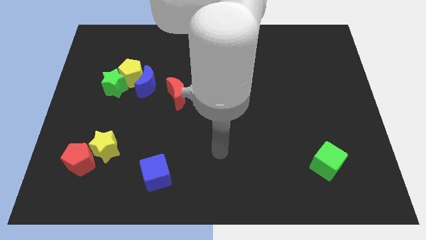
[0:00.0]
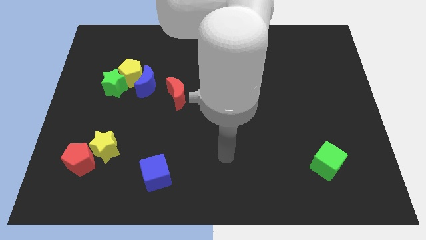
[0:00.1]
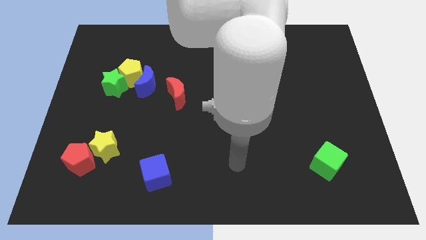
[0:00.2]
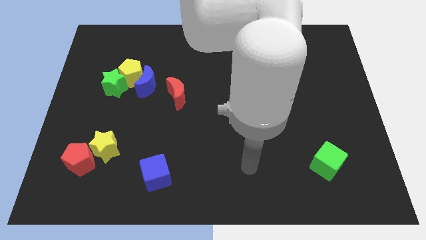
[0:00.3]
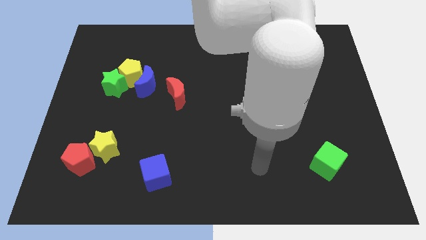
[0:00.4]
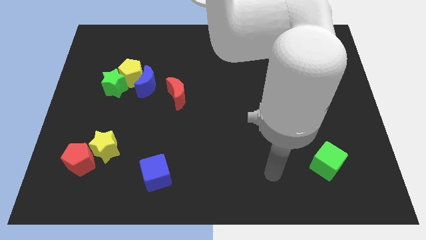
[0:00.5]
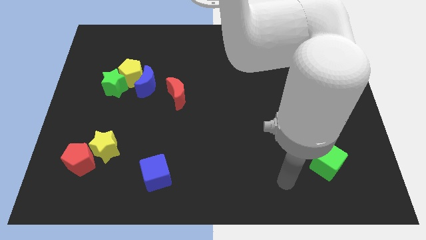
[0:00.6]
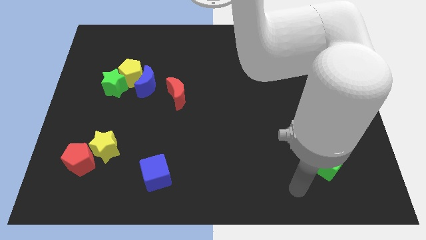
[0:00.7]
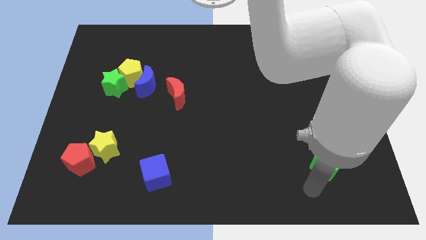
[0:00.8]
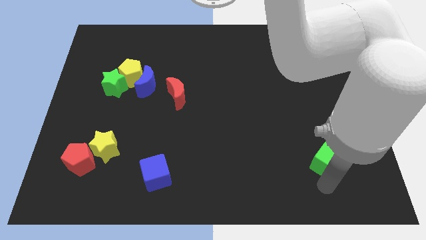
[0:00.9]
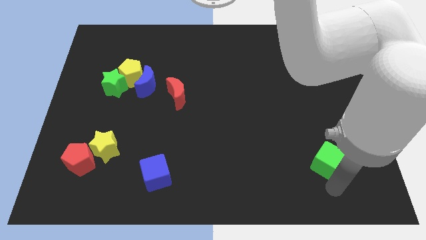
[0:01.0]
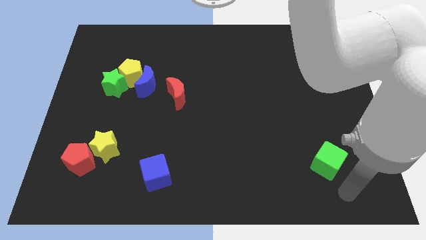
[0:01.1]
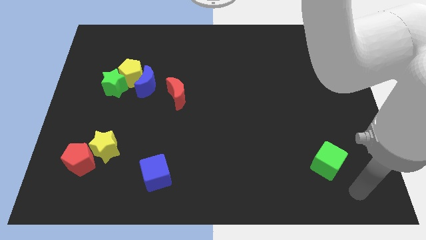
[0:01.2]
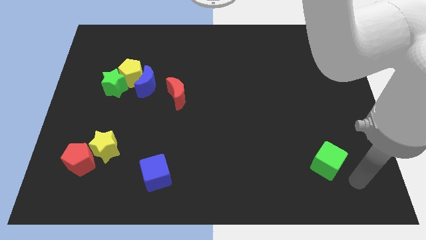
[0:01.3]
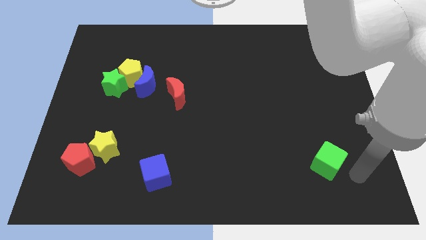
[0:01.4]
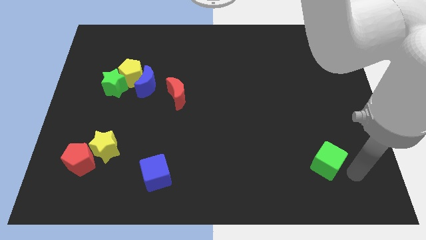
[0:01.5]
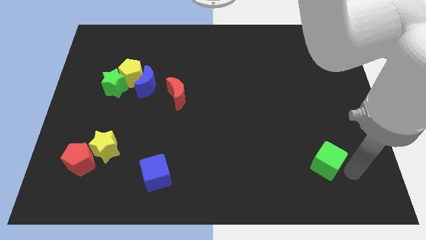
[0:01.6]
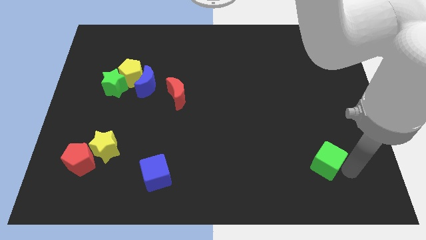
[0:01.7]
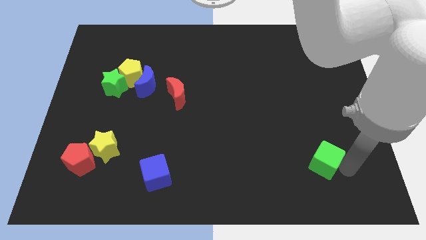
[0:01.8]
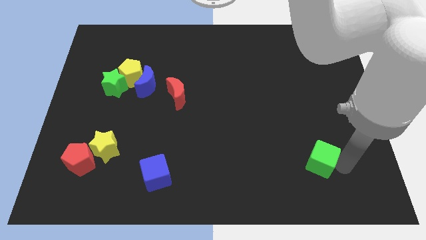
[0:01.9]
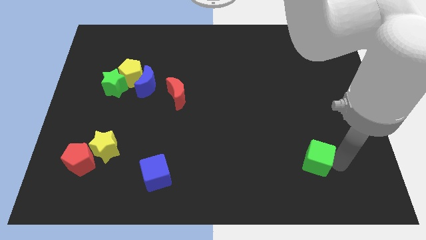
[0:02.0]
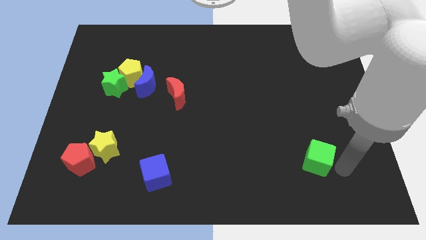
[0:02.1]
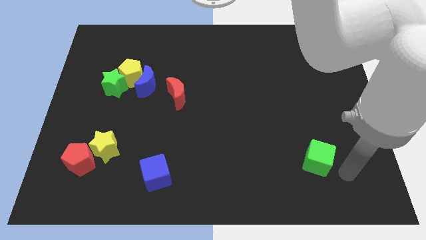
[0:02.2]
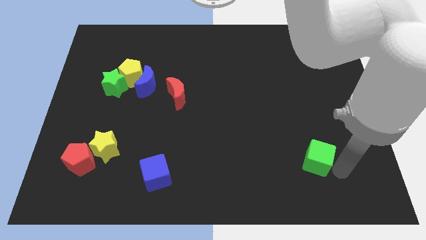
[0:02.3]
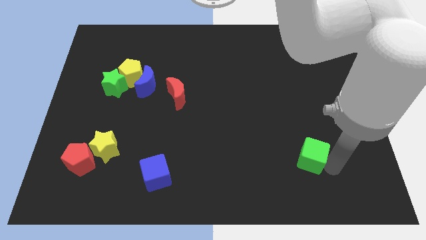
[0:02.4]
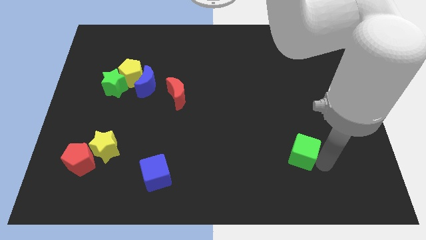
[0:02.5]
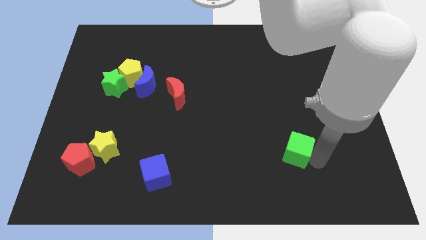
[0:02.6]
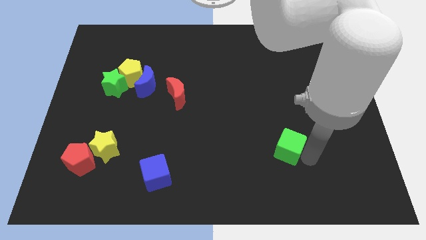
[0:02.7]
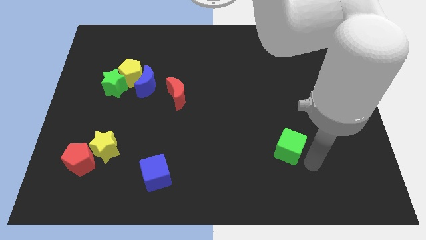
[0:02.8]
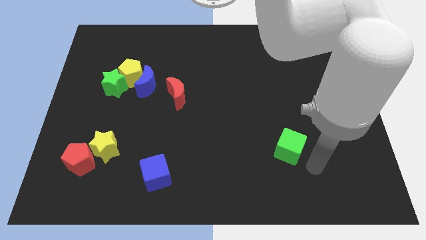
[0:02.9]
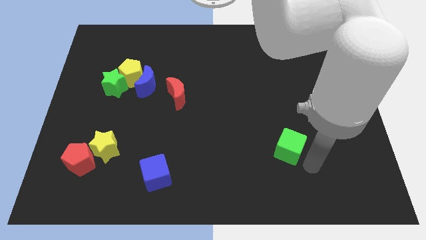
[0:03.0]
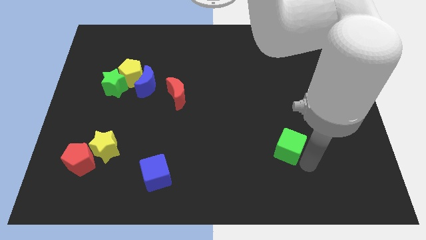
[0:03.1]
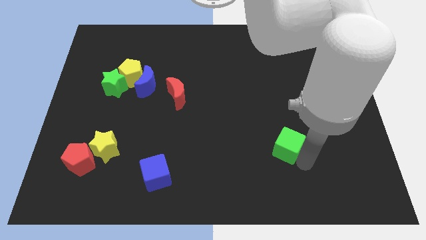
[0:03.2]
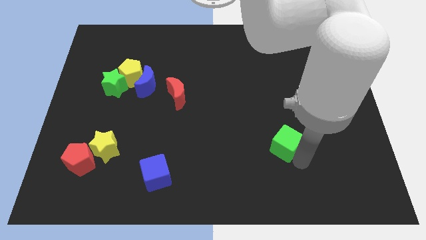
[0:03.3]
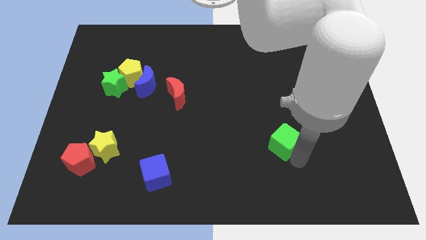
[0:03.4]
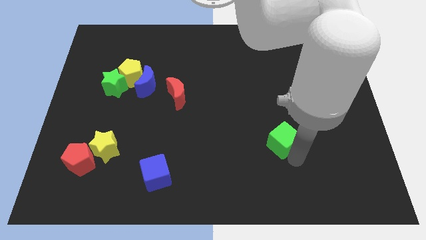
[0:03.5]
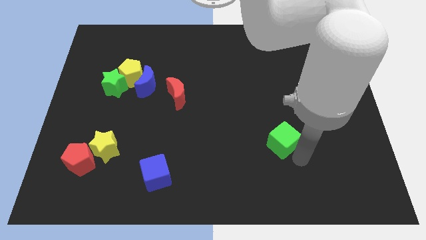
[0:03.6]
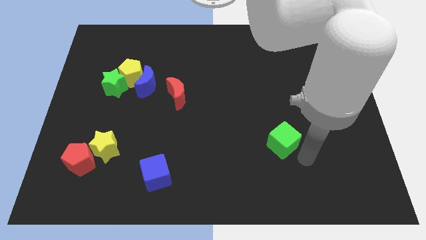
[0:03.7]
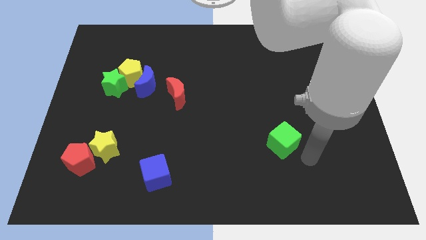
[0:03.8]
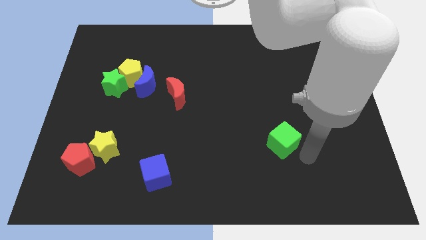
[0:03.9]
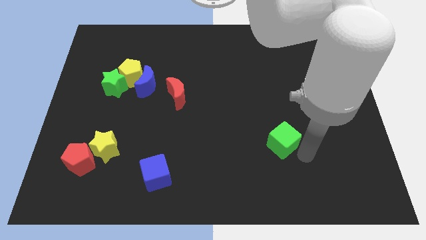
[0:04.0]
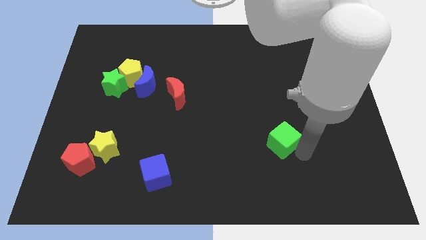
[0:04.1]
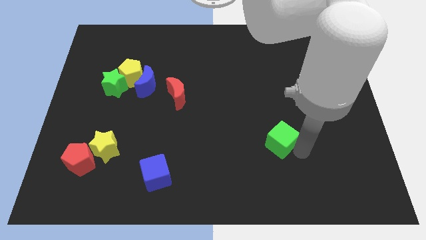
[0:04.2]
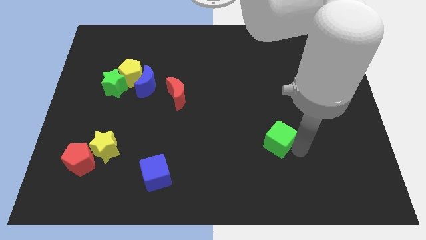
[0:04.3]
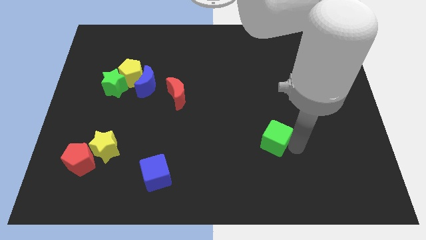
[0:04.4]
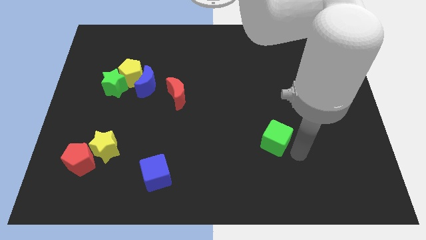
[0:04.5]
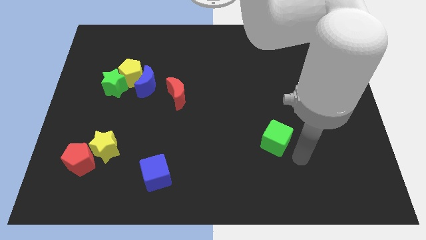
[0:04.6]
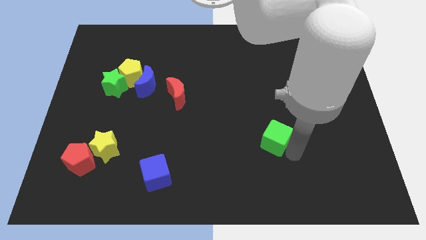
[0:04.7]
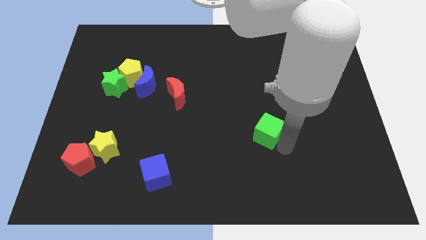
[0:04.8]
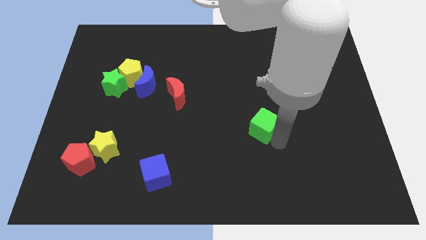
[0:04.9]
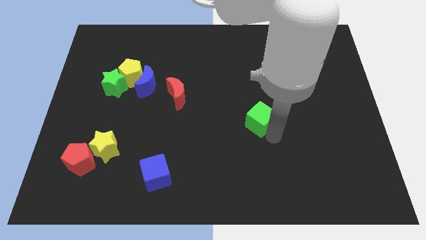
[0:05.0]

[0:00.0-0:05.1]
move the green cube to the center
